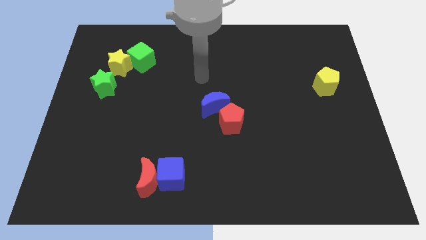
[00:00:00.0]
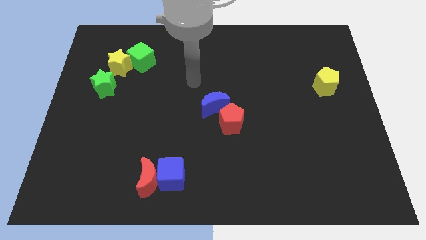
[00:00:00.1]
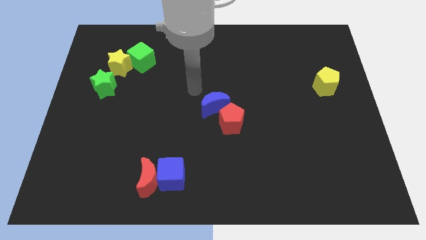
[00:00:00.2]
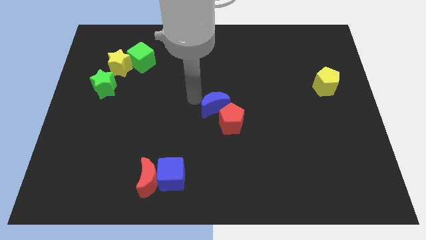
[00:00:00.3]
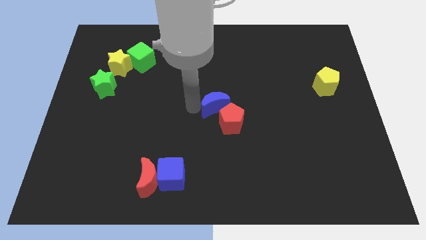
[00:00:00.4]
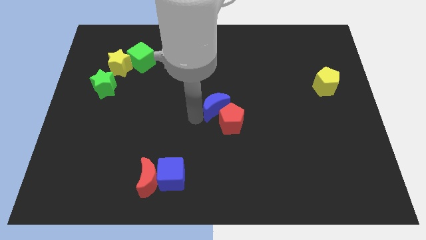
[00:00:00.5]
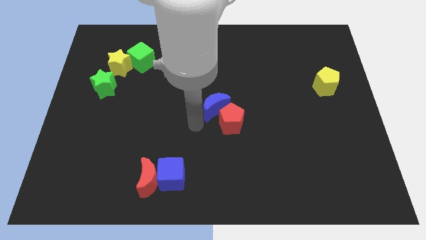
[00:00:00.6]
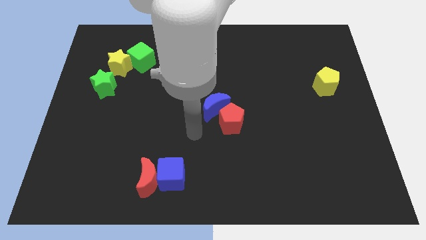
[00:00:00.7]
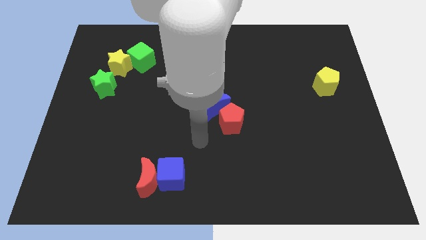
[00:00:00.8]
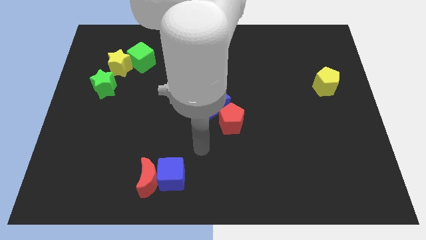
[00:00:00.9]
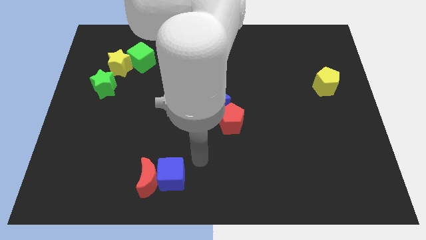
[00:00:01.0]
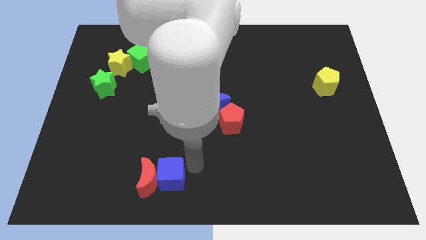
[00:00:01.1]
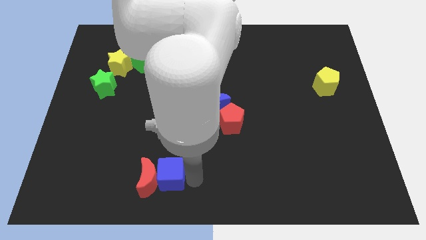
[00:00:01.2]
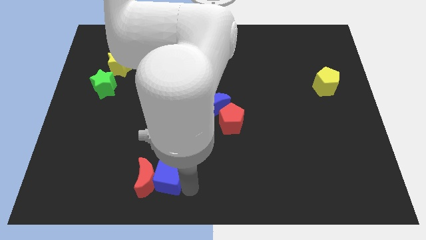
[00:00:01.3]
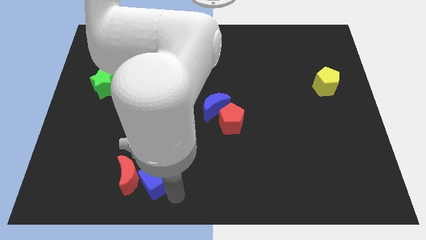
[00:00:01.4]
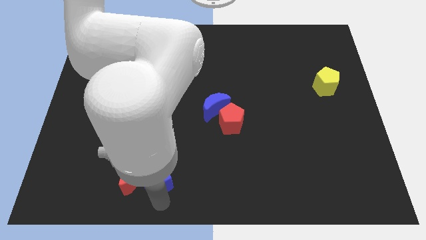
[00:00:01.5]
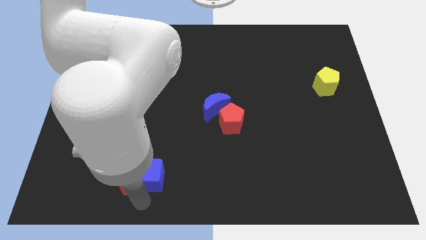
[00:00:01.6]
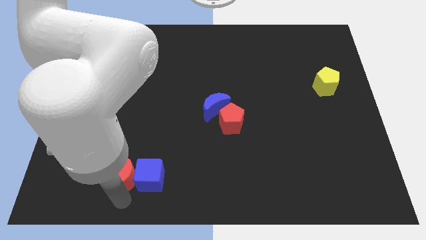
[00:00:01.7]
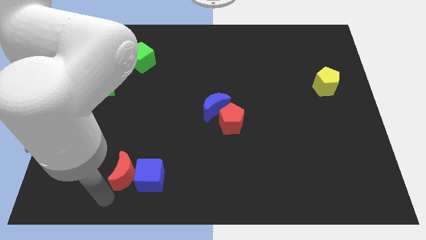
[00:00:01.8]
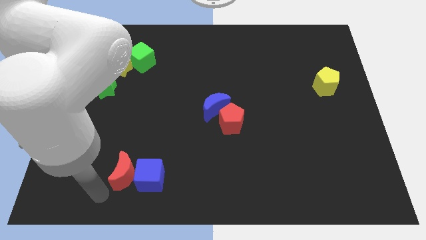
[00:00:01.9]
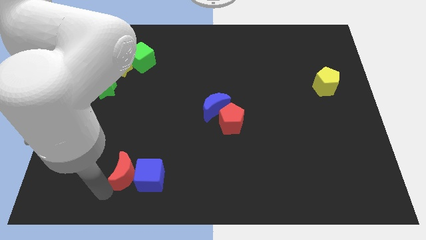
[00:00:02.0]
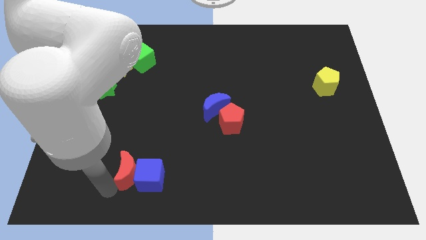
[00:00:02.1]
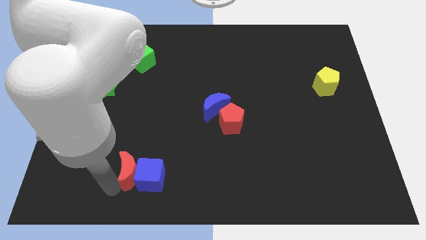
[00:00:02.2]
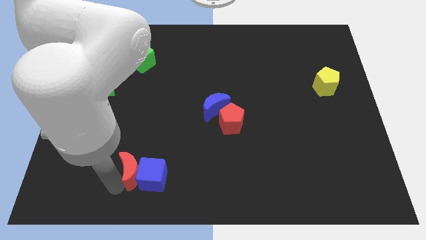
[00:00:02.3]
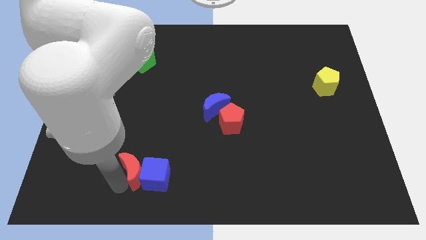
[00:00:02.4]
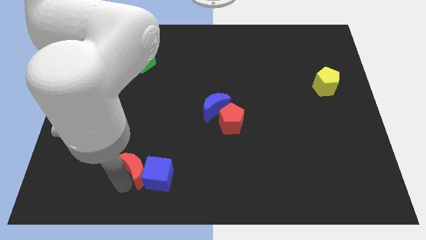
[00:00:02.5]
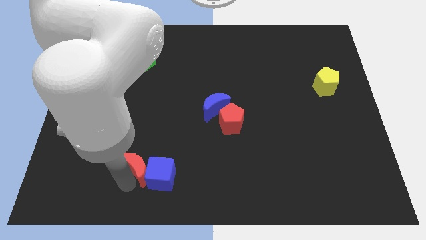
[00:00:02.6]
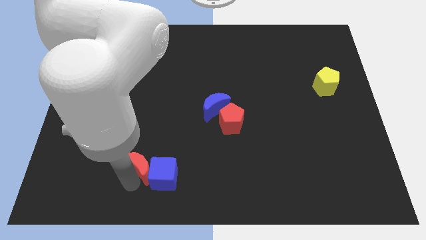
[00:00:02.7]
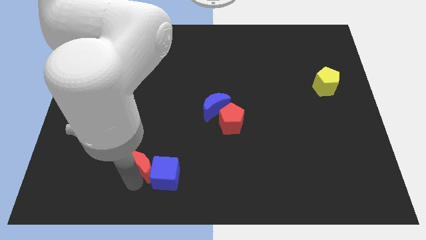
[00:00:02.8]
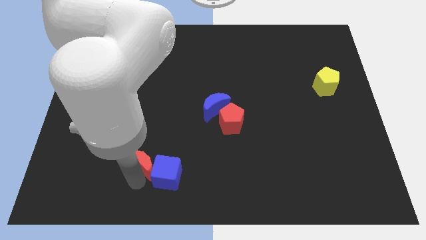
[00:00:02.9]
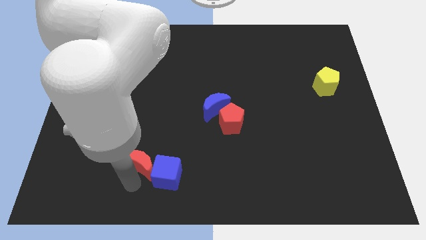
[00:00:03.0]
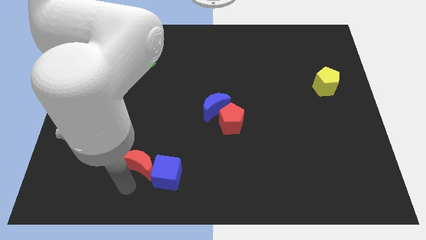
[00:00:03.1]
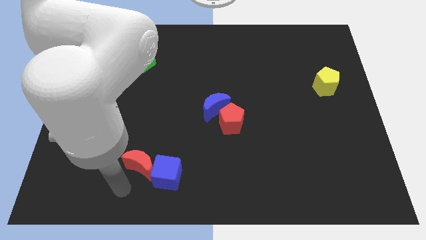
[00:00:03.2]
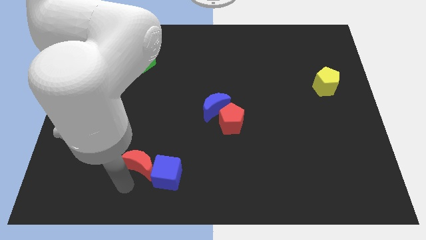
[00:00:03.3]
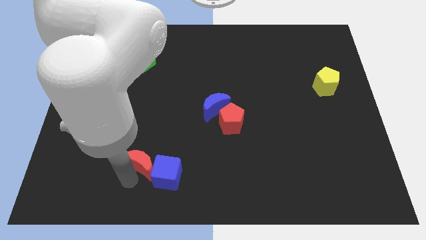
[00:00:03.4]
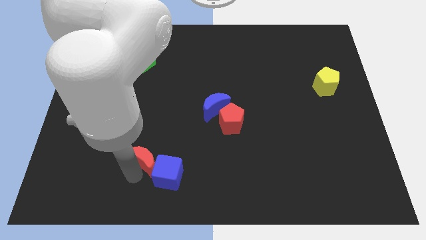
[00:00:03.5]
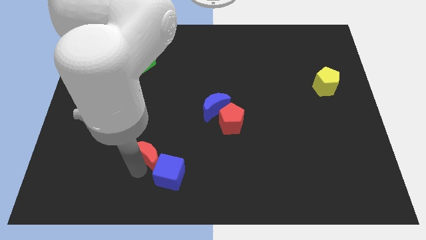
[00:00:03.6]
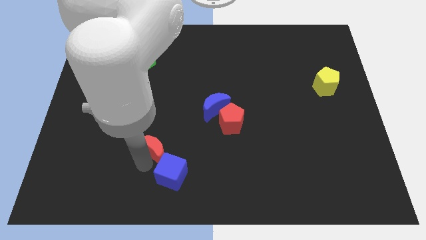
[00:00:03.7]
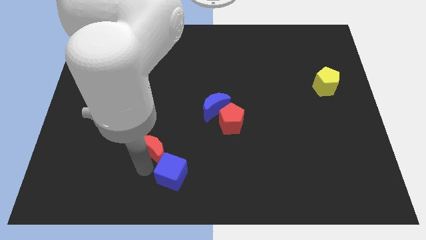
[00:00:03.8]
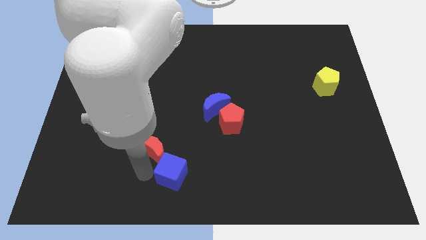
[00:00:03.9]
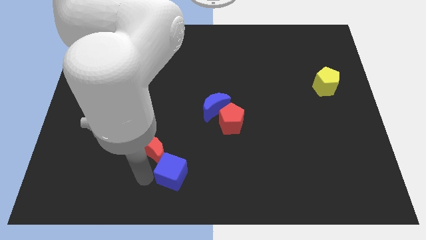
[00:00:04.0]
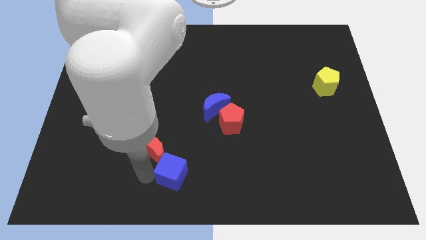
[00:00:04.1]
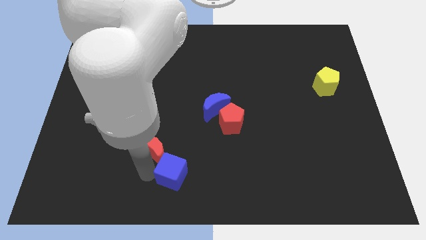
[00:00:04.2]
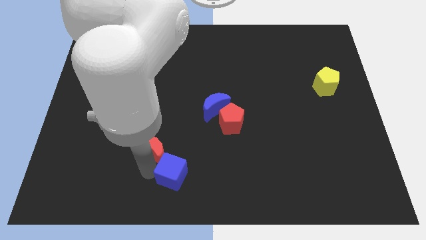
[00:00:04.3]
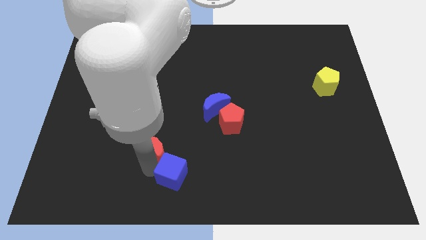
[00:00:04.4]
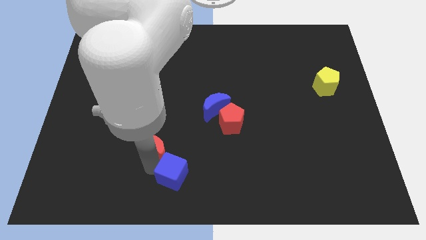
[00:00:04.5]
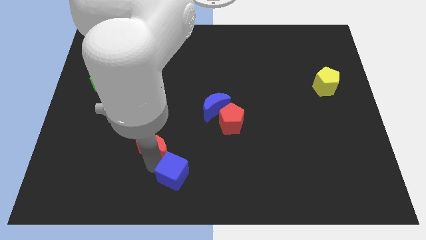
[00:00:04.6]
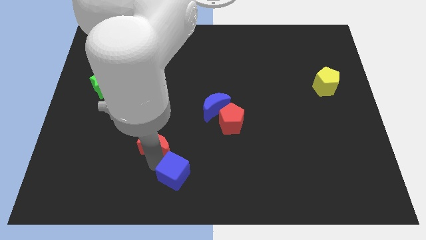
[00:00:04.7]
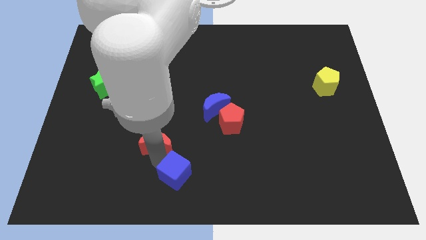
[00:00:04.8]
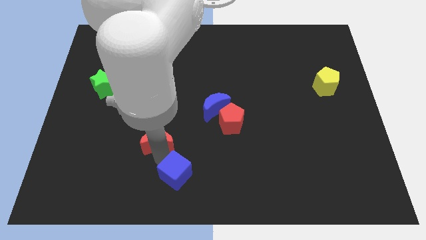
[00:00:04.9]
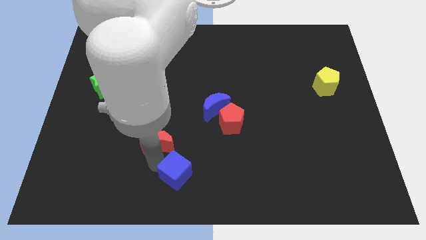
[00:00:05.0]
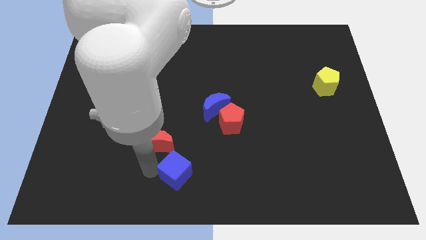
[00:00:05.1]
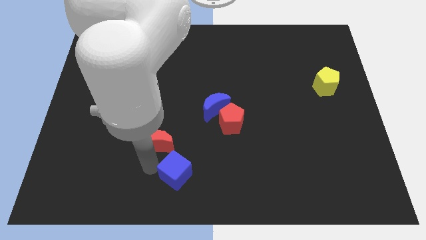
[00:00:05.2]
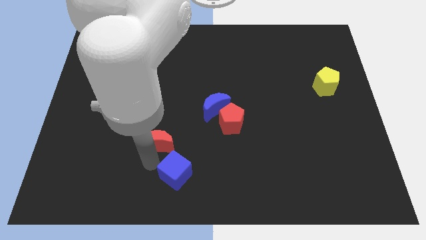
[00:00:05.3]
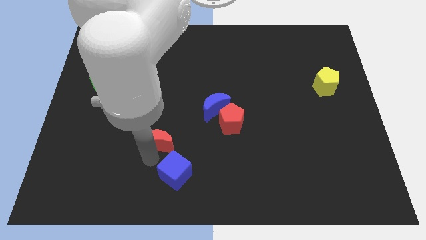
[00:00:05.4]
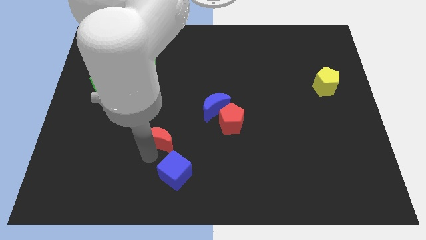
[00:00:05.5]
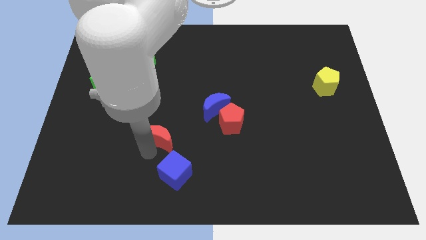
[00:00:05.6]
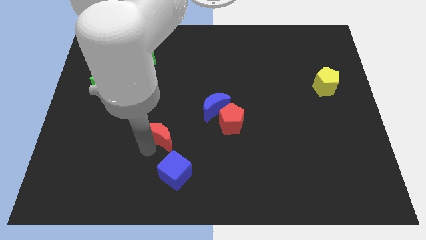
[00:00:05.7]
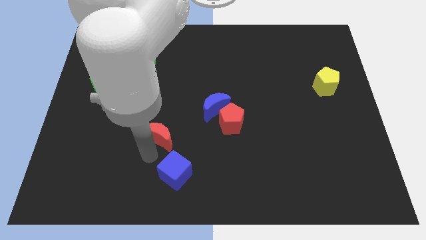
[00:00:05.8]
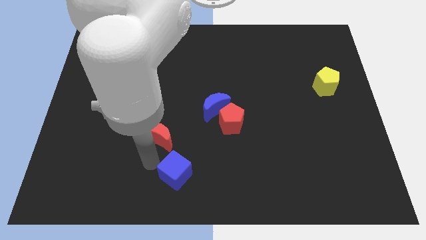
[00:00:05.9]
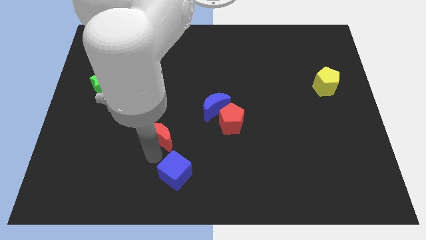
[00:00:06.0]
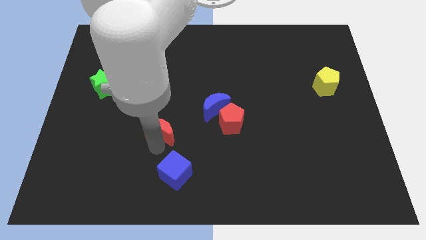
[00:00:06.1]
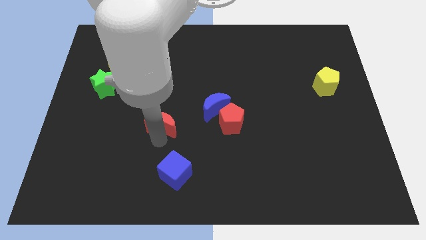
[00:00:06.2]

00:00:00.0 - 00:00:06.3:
move the red moon to the left of the blue moon
